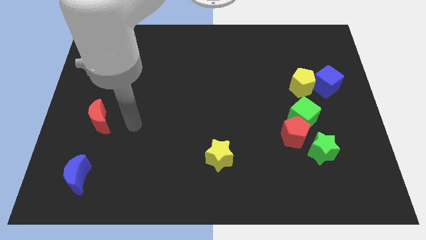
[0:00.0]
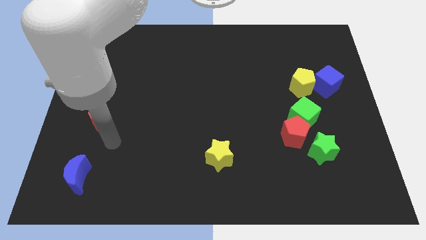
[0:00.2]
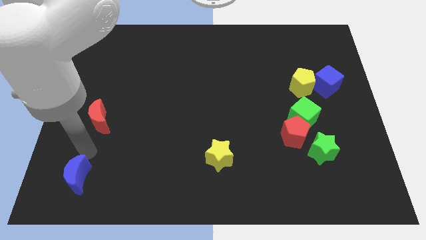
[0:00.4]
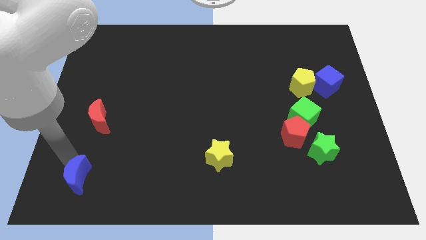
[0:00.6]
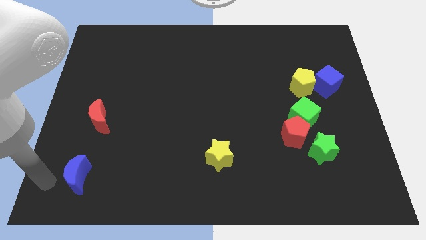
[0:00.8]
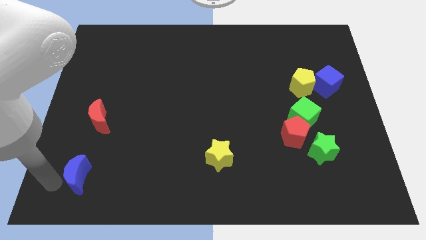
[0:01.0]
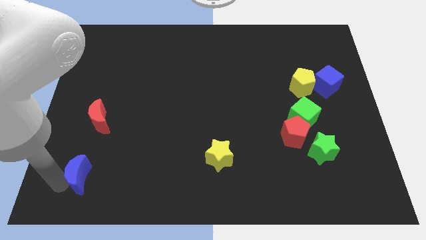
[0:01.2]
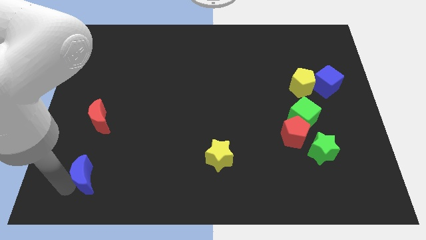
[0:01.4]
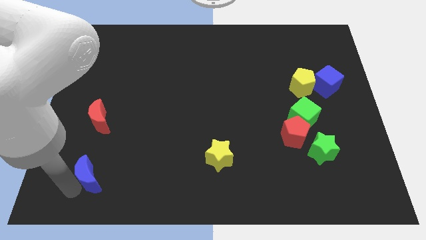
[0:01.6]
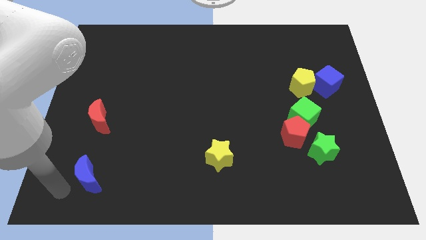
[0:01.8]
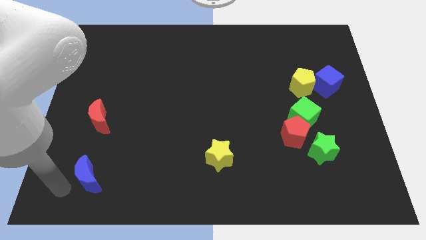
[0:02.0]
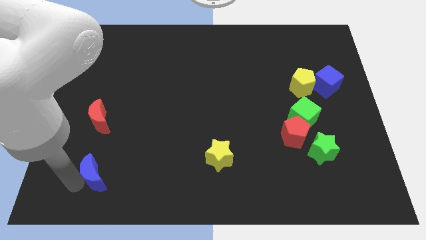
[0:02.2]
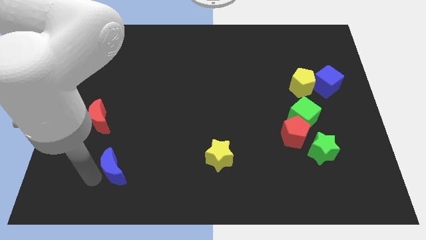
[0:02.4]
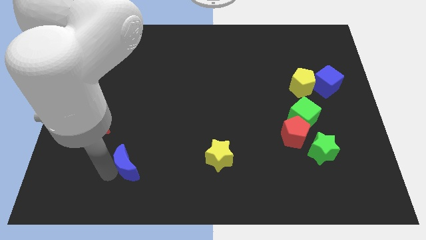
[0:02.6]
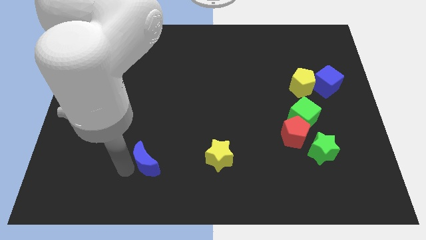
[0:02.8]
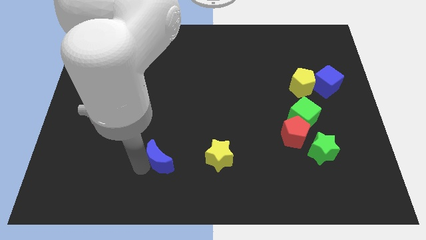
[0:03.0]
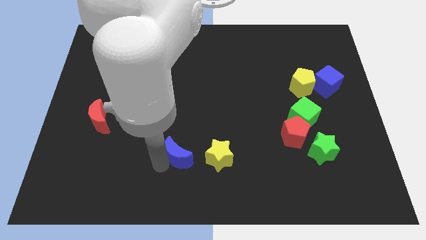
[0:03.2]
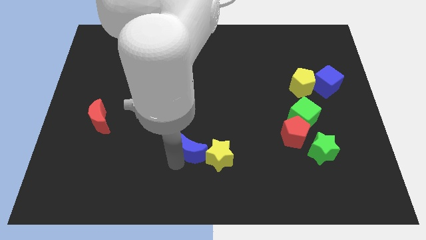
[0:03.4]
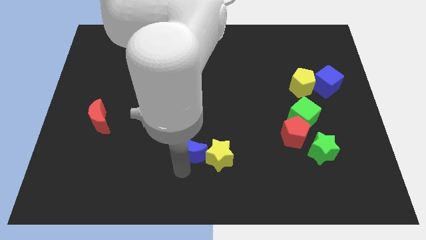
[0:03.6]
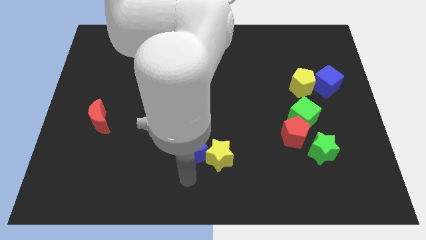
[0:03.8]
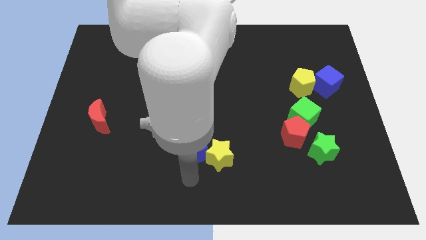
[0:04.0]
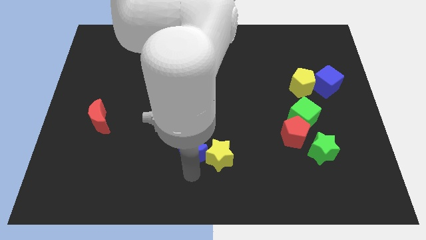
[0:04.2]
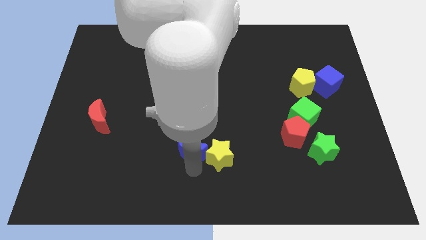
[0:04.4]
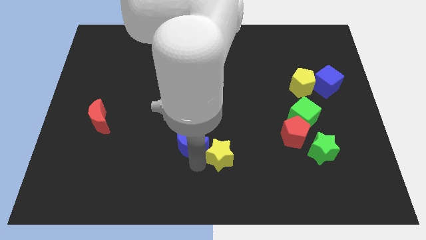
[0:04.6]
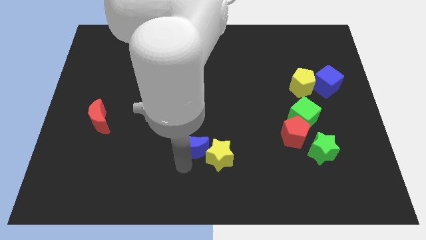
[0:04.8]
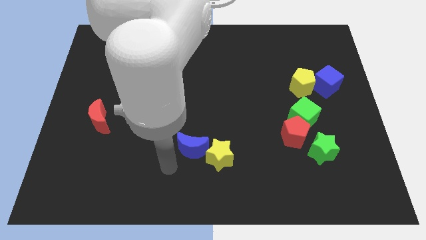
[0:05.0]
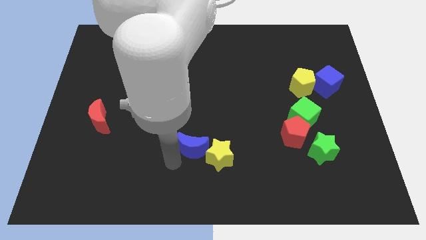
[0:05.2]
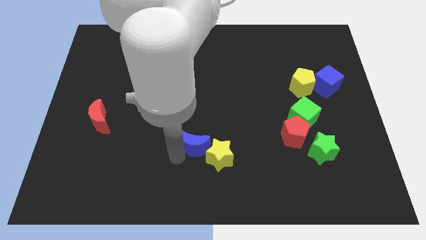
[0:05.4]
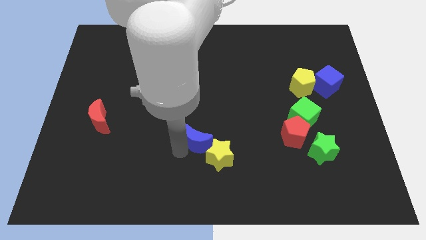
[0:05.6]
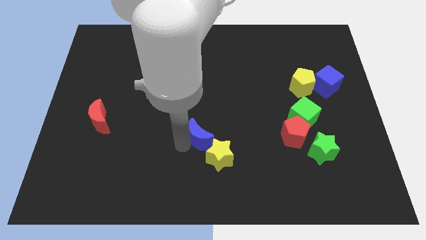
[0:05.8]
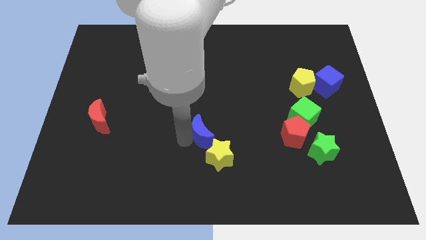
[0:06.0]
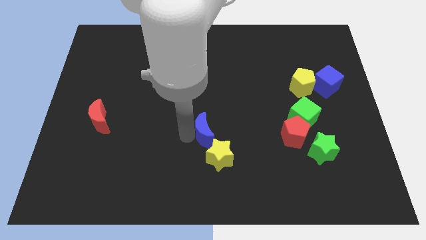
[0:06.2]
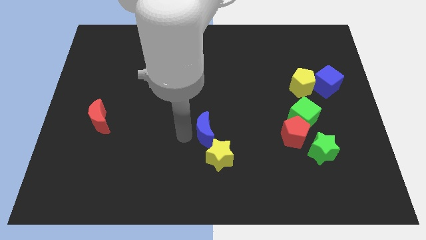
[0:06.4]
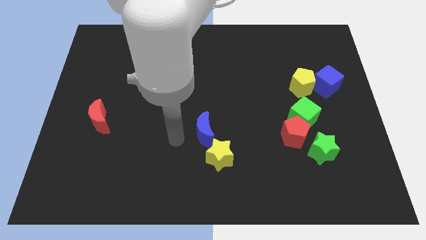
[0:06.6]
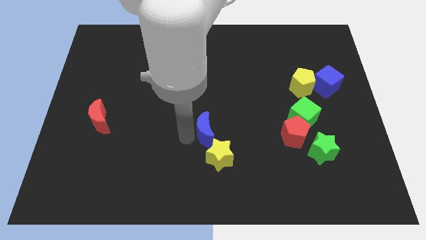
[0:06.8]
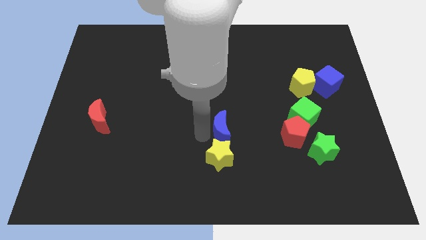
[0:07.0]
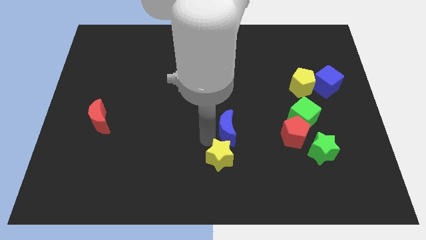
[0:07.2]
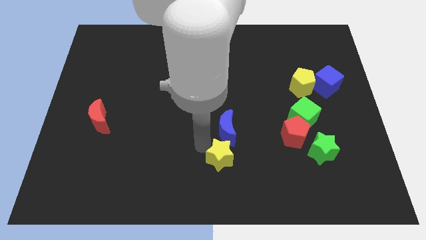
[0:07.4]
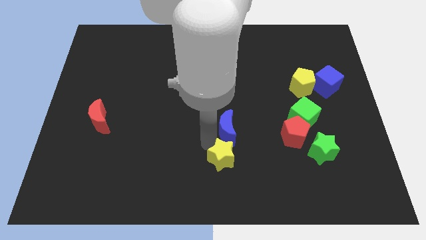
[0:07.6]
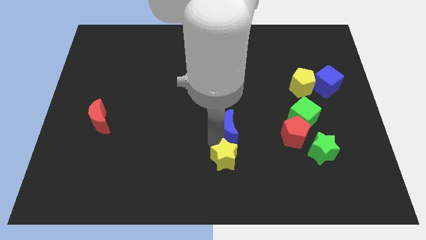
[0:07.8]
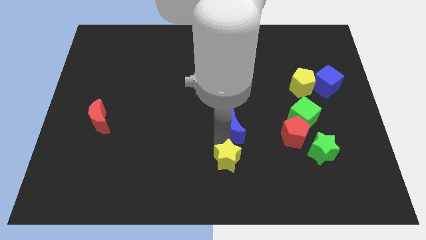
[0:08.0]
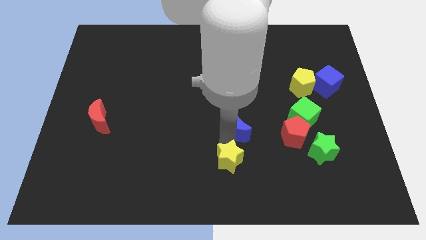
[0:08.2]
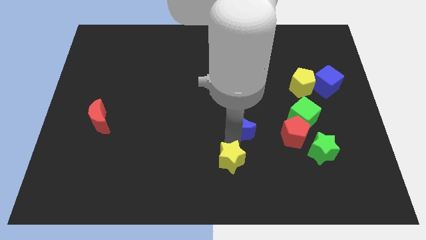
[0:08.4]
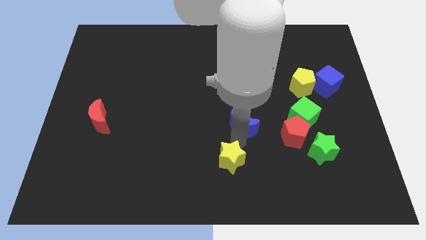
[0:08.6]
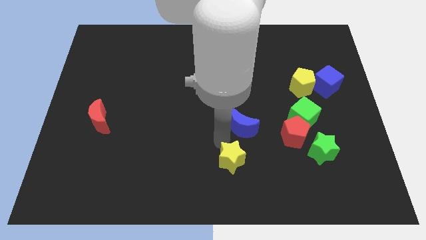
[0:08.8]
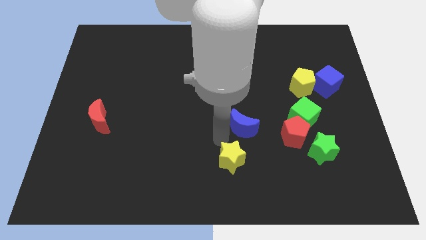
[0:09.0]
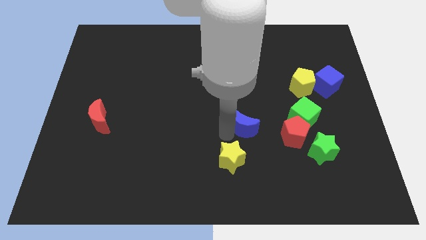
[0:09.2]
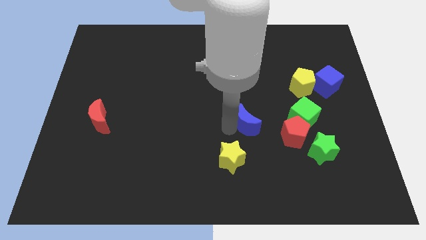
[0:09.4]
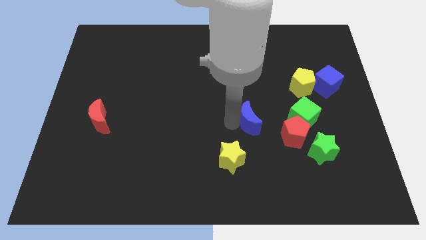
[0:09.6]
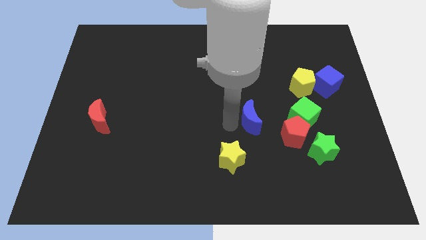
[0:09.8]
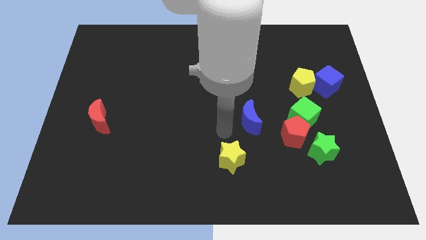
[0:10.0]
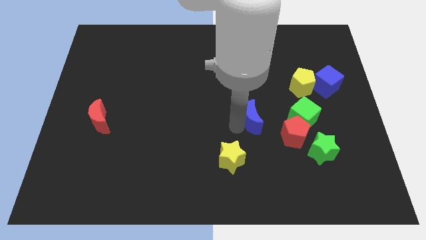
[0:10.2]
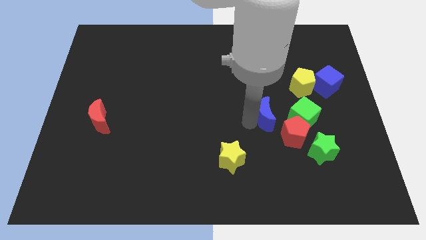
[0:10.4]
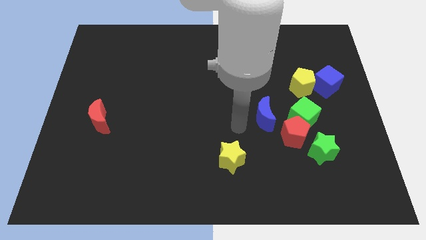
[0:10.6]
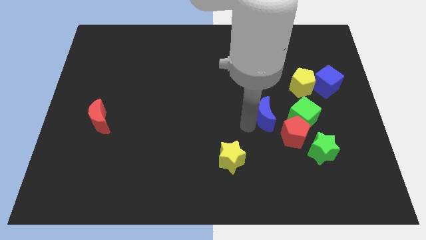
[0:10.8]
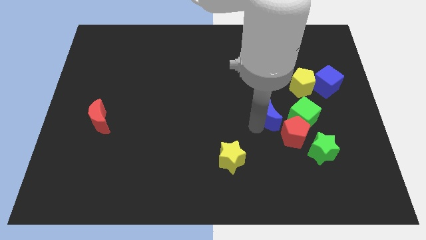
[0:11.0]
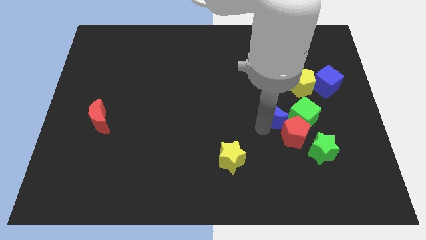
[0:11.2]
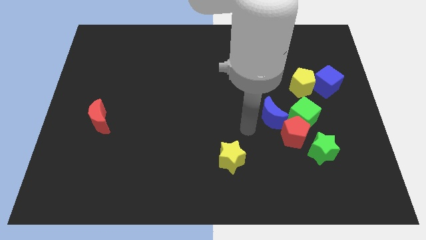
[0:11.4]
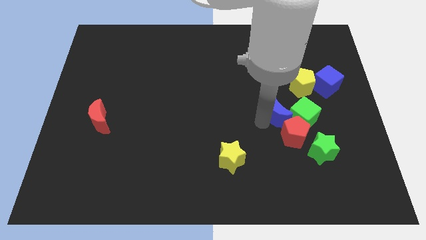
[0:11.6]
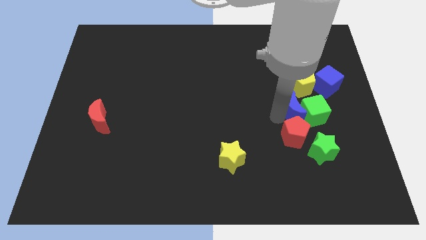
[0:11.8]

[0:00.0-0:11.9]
slide the blue moon to the top right of the red pentagon

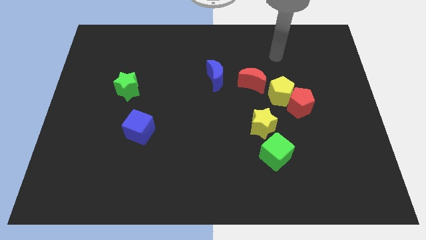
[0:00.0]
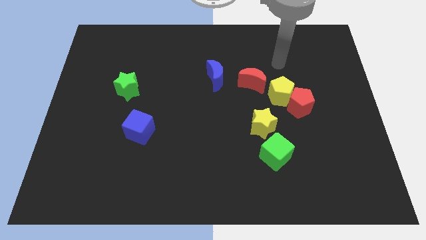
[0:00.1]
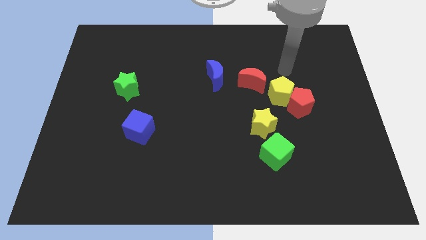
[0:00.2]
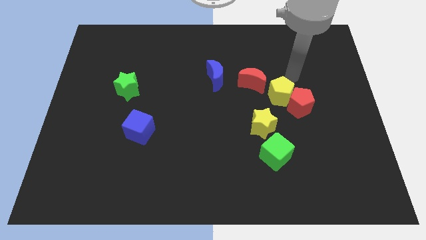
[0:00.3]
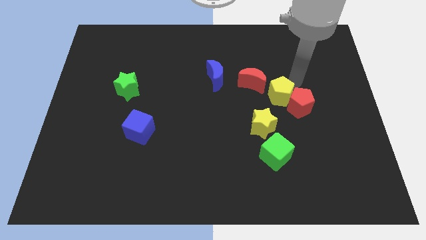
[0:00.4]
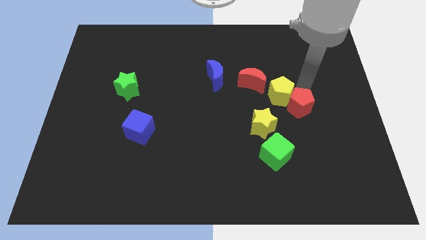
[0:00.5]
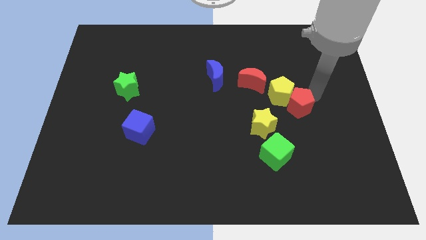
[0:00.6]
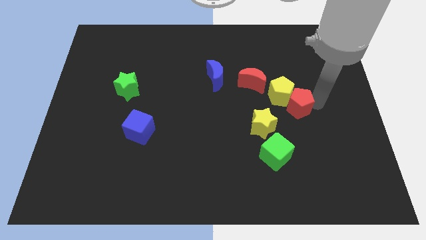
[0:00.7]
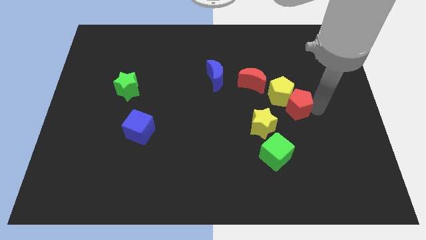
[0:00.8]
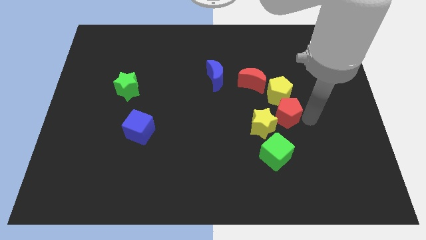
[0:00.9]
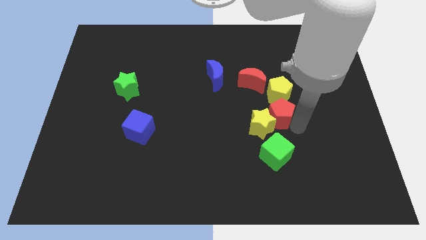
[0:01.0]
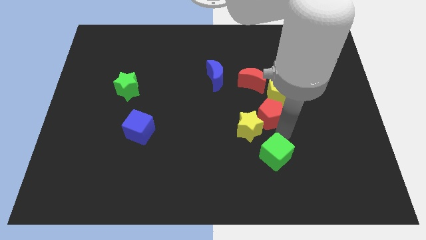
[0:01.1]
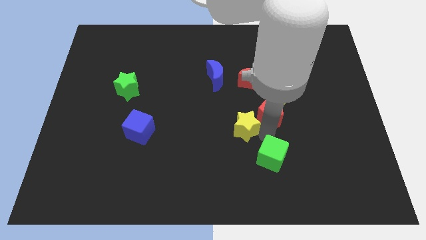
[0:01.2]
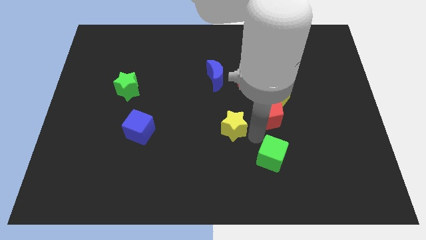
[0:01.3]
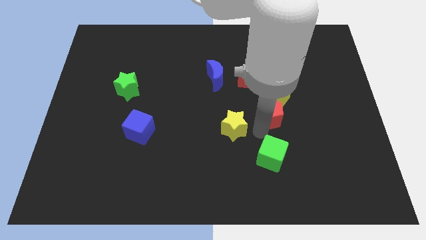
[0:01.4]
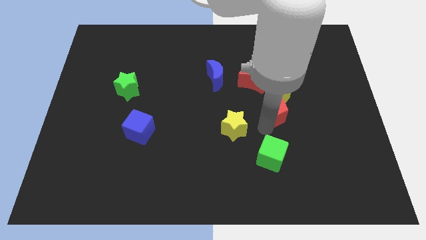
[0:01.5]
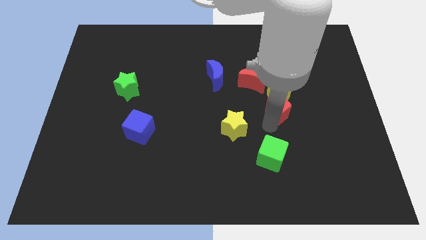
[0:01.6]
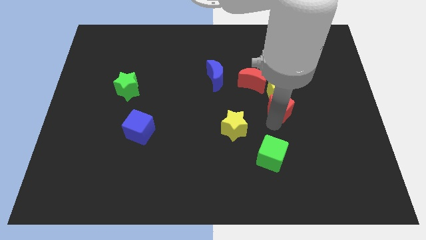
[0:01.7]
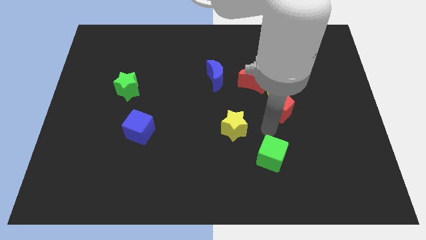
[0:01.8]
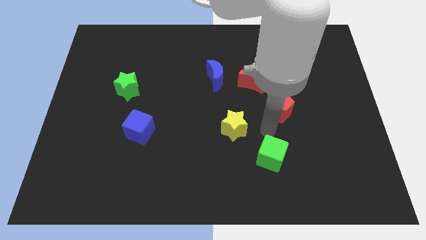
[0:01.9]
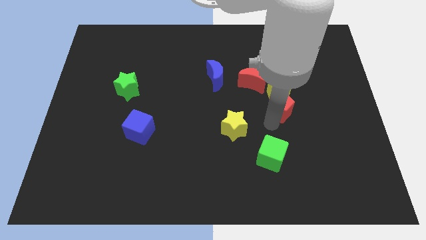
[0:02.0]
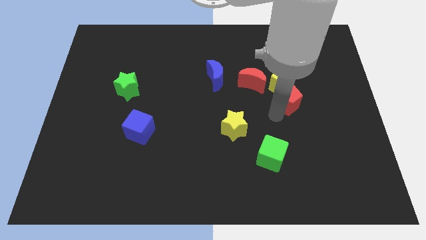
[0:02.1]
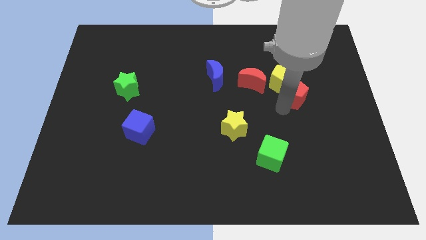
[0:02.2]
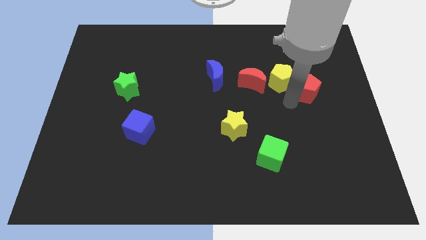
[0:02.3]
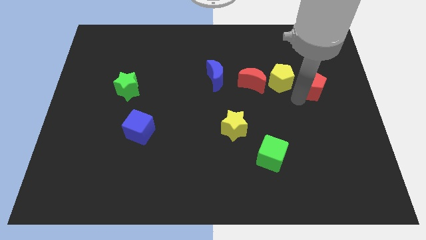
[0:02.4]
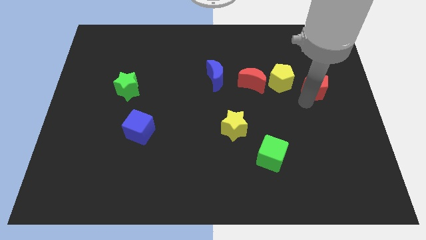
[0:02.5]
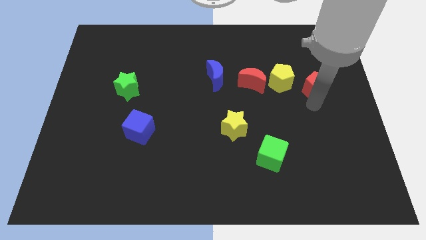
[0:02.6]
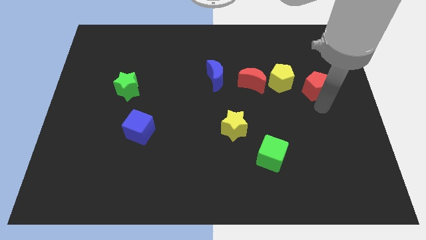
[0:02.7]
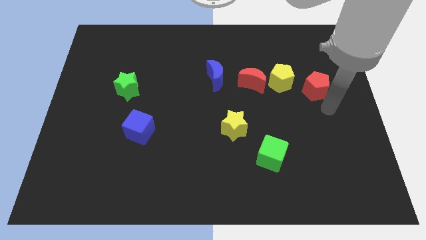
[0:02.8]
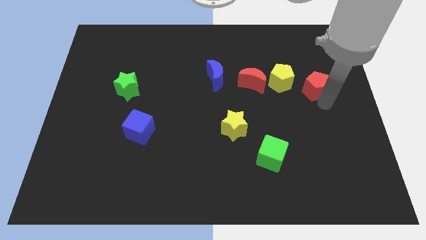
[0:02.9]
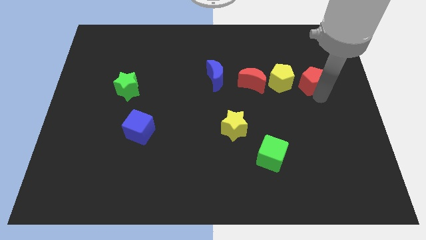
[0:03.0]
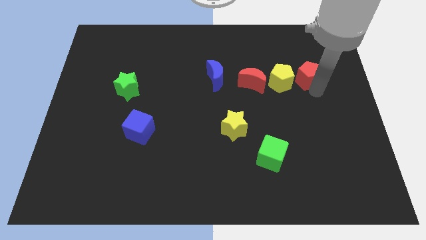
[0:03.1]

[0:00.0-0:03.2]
push the red pentagon to the top right side of the yellow pentagon
